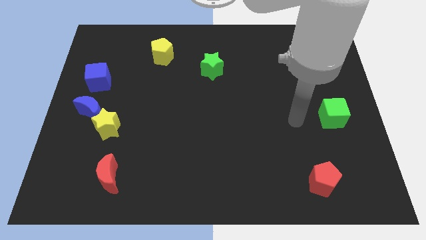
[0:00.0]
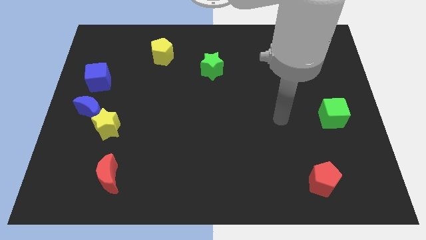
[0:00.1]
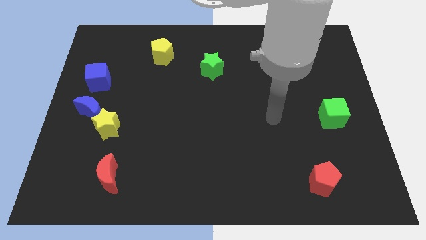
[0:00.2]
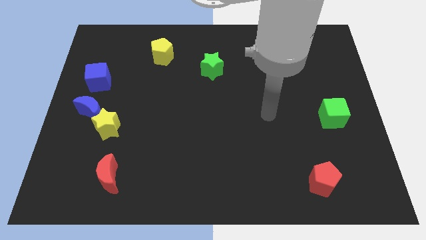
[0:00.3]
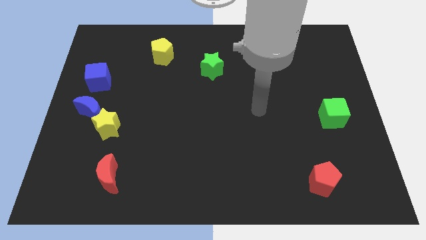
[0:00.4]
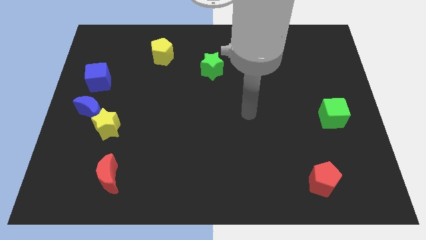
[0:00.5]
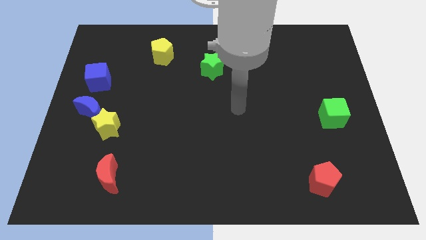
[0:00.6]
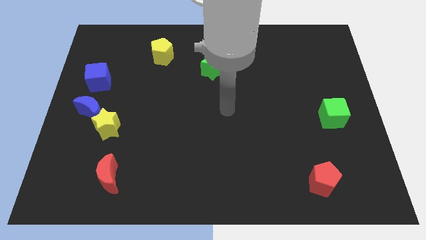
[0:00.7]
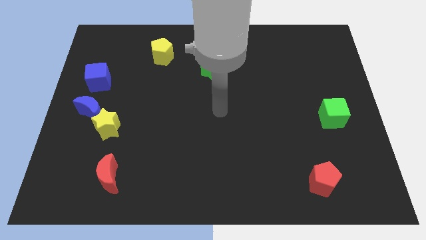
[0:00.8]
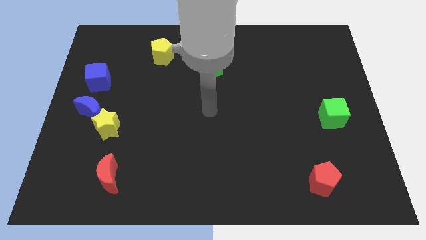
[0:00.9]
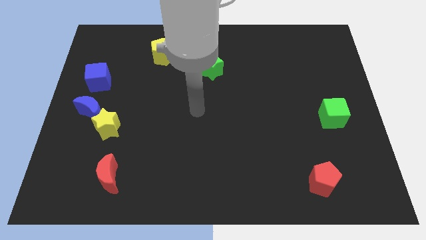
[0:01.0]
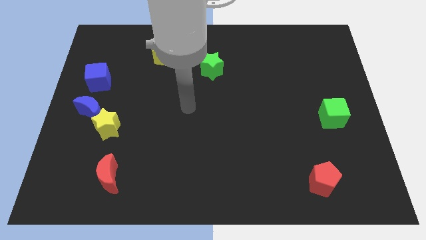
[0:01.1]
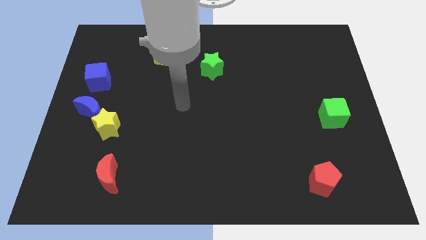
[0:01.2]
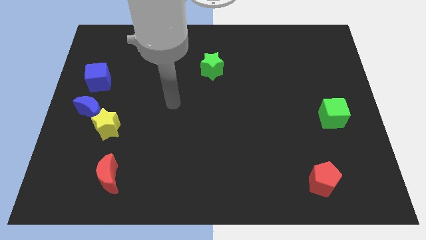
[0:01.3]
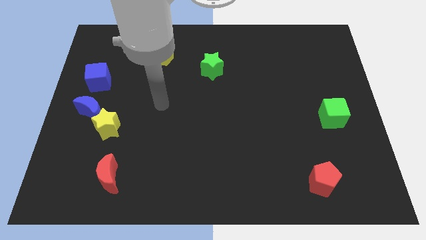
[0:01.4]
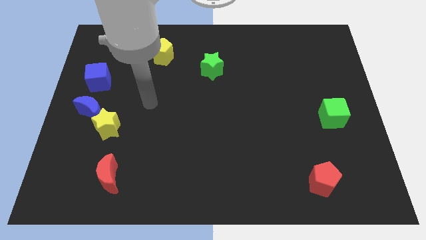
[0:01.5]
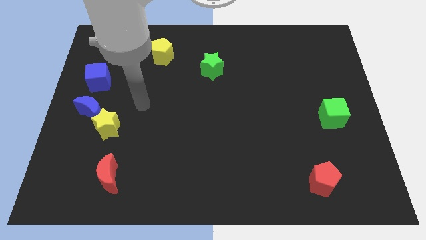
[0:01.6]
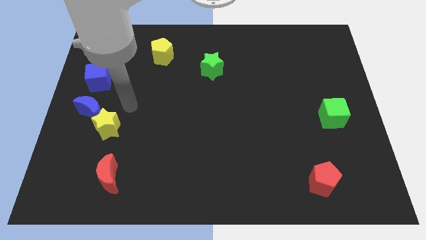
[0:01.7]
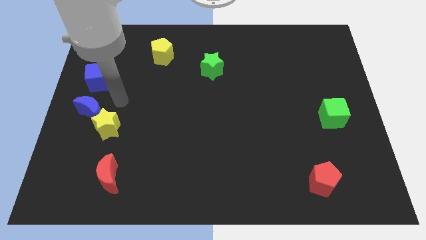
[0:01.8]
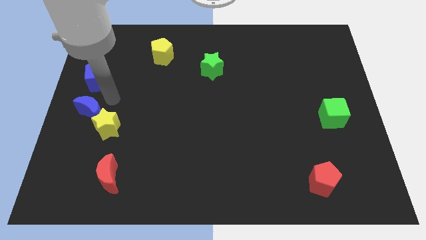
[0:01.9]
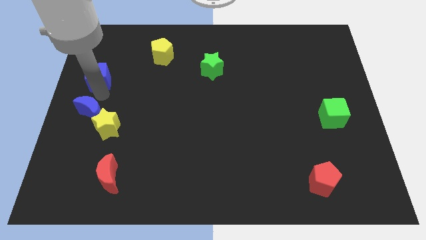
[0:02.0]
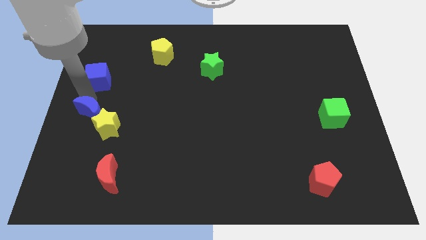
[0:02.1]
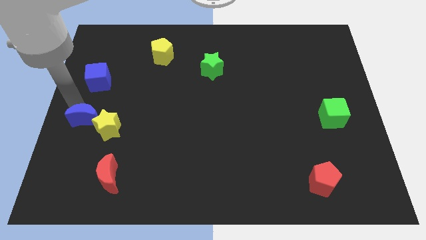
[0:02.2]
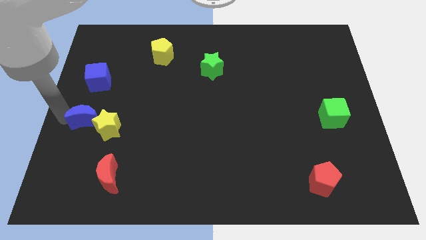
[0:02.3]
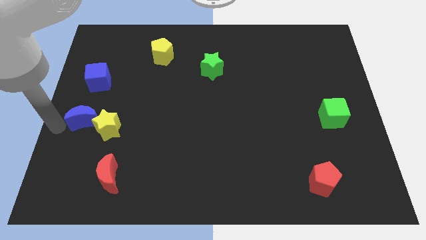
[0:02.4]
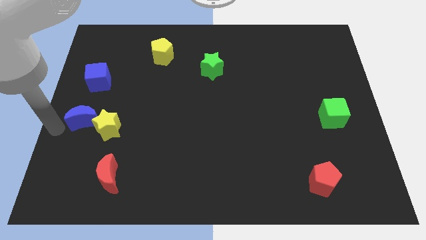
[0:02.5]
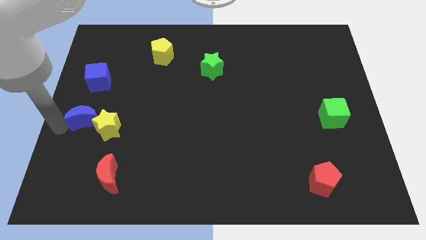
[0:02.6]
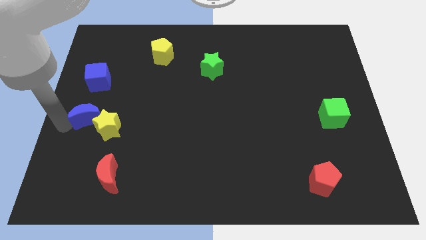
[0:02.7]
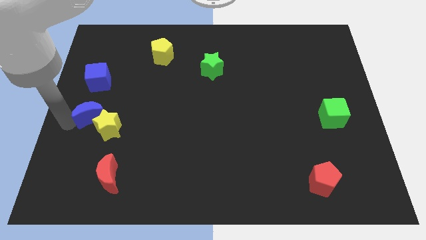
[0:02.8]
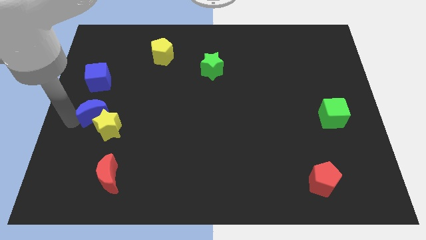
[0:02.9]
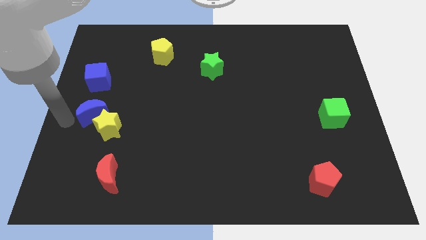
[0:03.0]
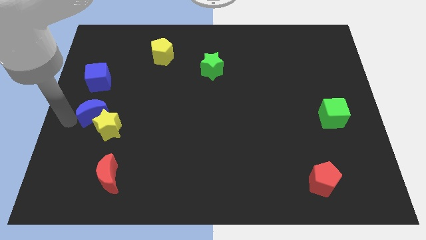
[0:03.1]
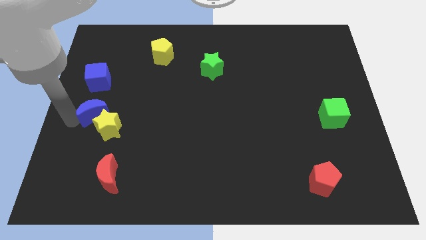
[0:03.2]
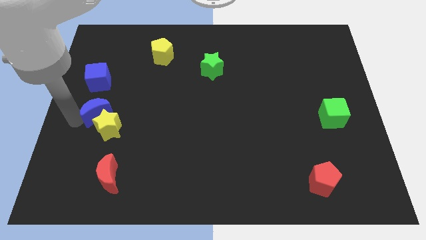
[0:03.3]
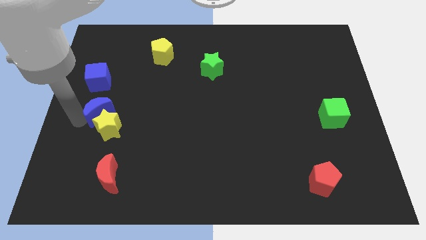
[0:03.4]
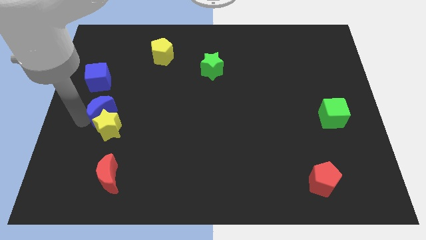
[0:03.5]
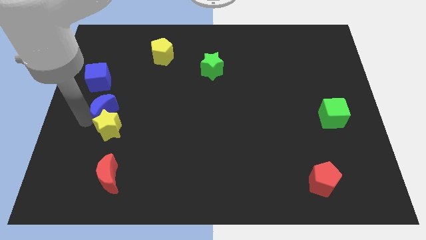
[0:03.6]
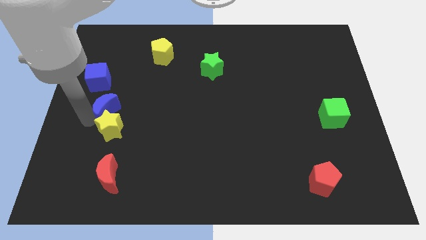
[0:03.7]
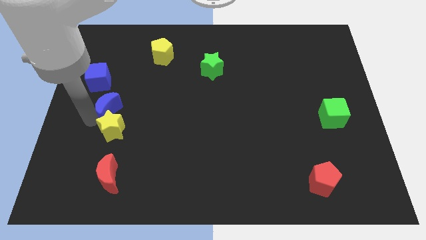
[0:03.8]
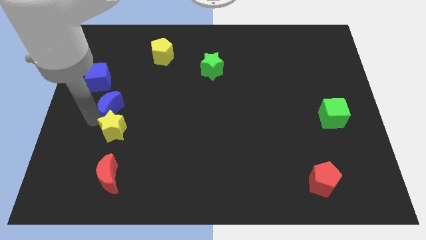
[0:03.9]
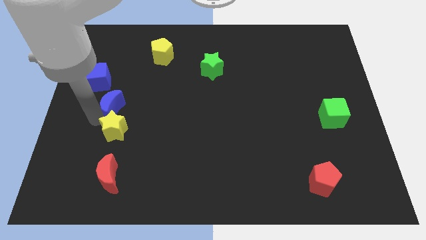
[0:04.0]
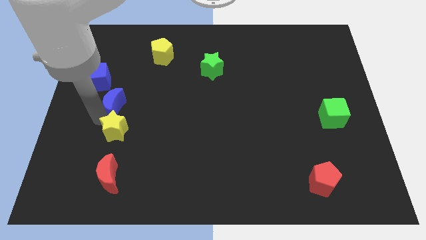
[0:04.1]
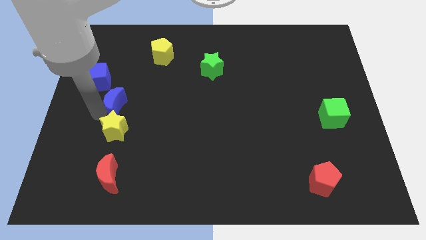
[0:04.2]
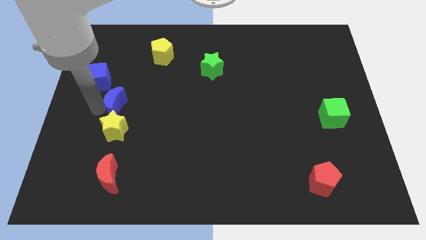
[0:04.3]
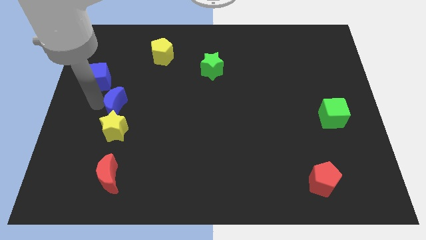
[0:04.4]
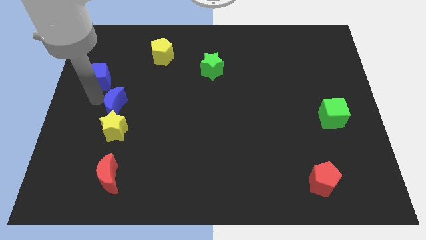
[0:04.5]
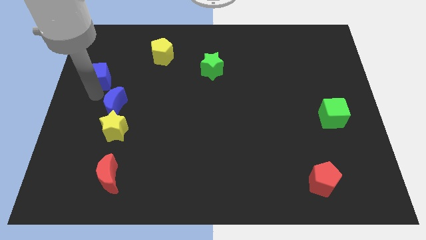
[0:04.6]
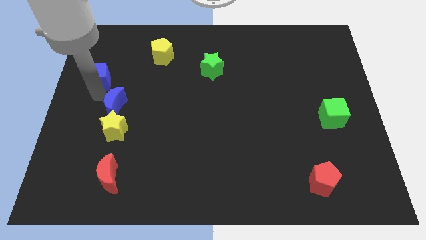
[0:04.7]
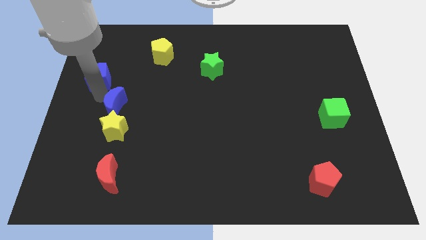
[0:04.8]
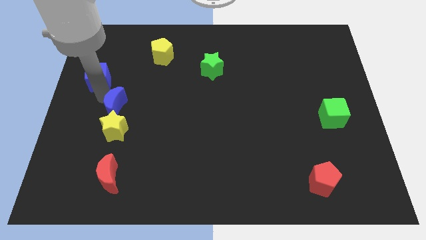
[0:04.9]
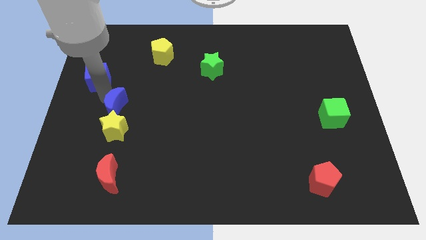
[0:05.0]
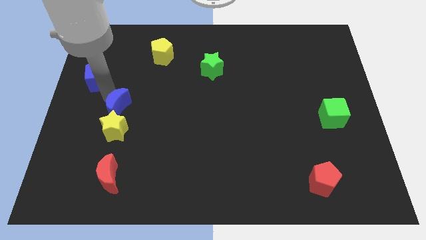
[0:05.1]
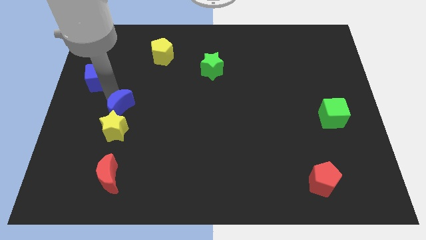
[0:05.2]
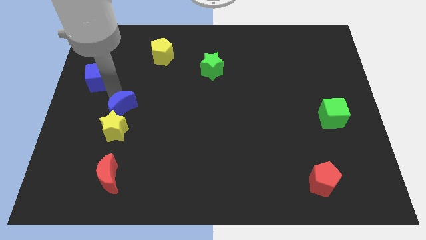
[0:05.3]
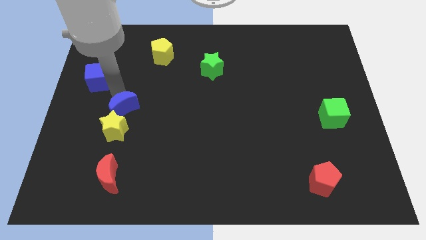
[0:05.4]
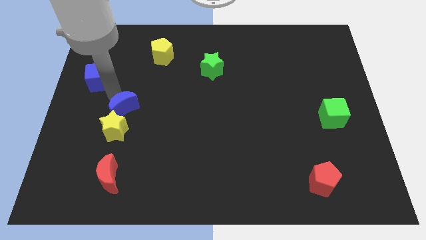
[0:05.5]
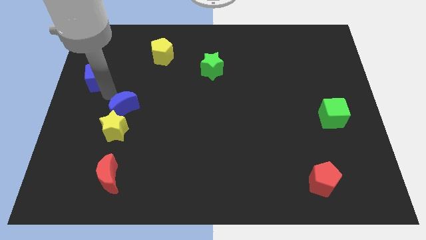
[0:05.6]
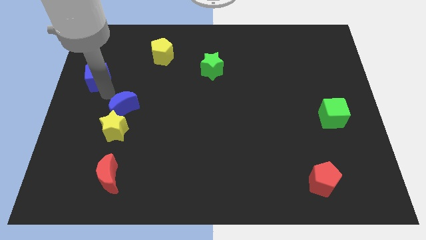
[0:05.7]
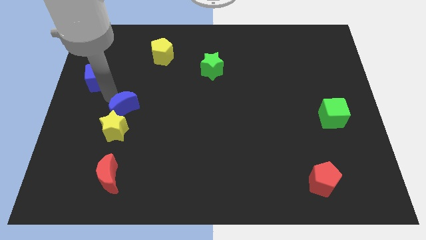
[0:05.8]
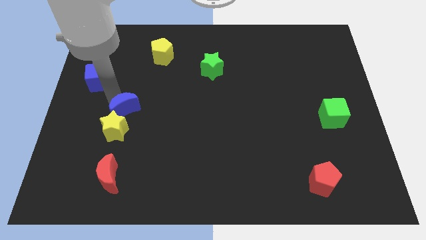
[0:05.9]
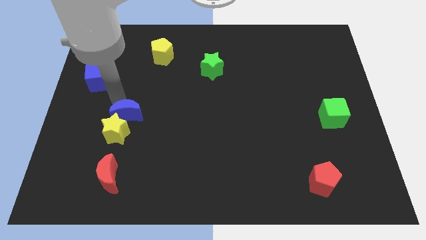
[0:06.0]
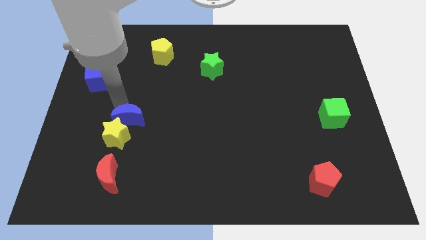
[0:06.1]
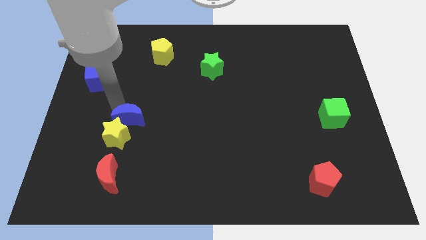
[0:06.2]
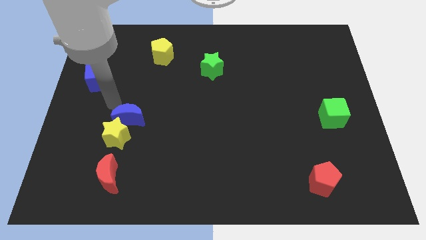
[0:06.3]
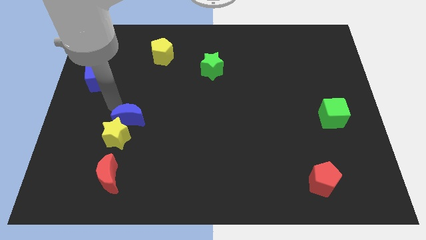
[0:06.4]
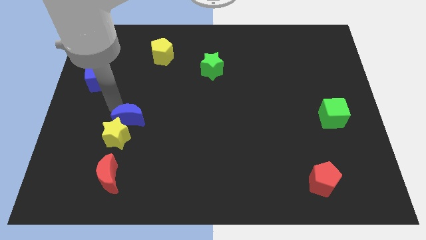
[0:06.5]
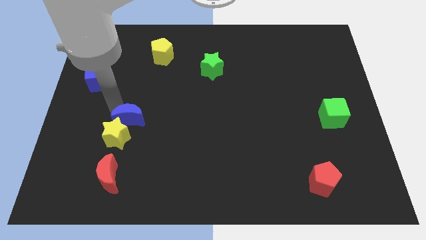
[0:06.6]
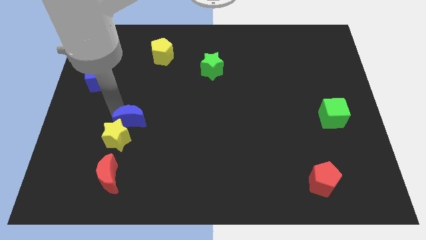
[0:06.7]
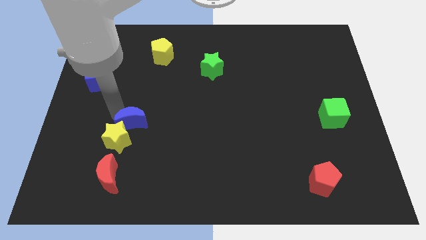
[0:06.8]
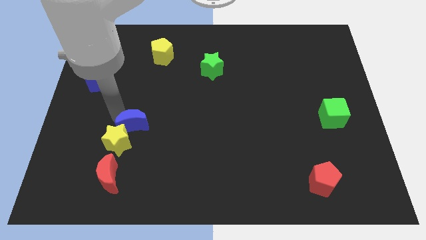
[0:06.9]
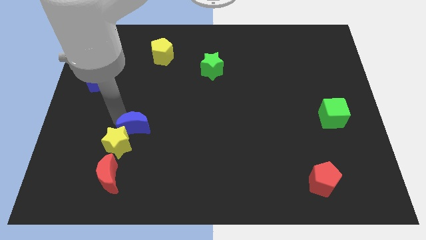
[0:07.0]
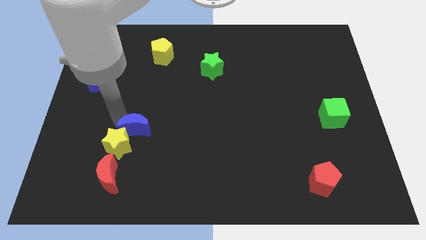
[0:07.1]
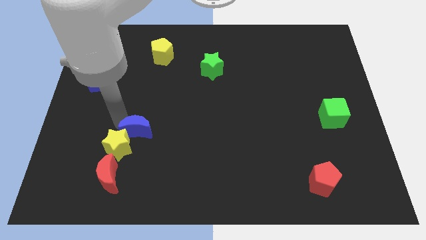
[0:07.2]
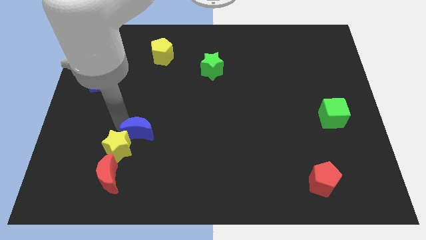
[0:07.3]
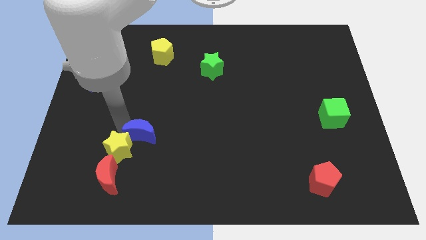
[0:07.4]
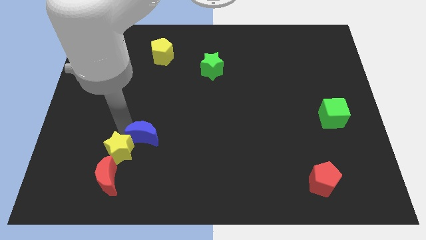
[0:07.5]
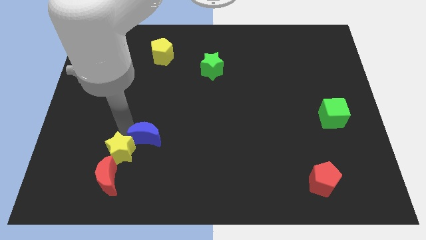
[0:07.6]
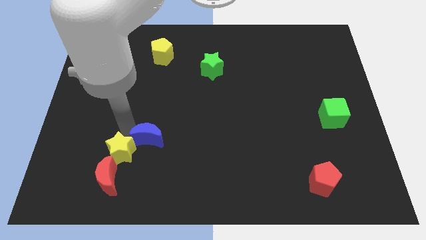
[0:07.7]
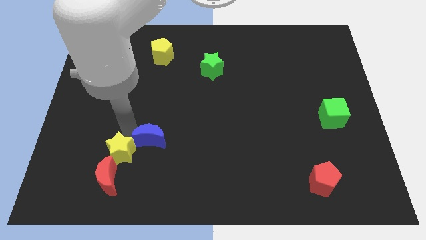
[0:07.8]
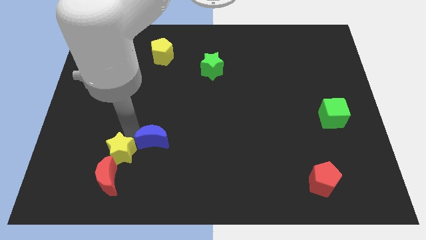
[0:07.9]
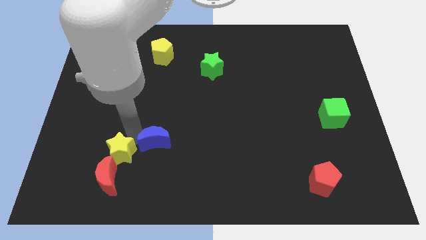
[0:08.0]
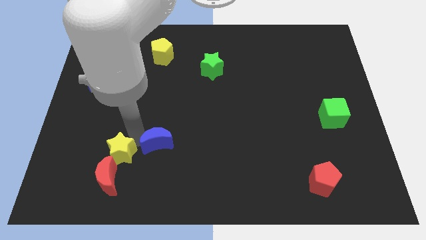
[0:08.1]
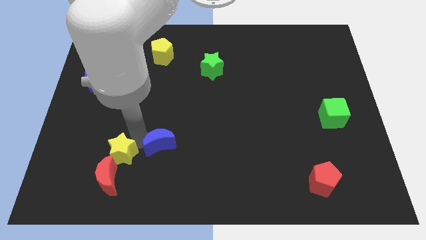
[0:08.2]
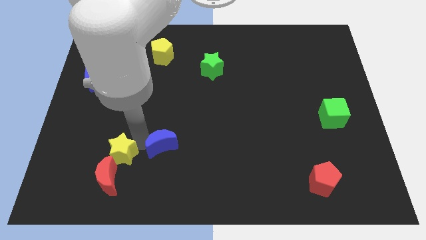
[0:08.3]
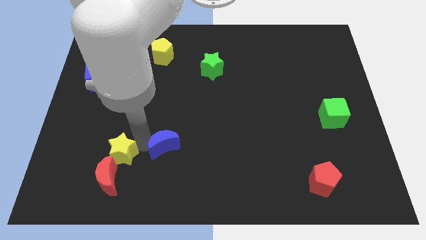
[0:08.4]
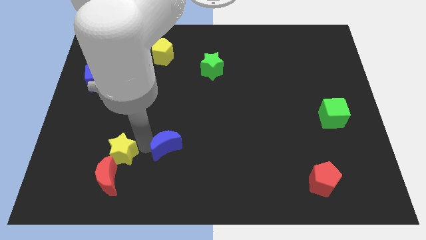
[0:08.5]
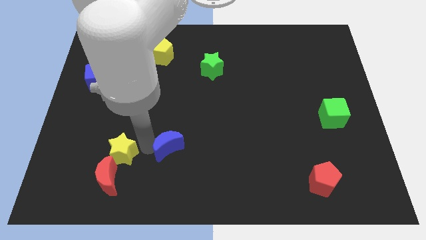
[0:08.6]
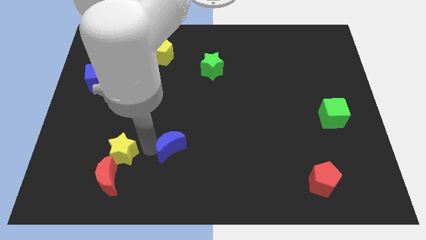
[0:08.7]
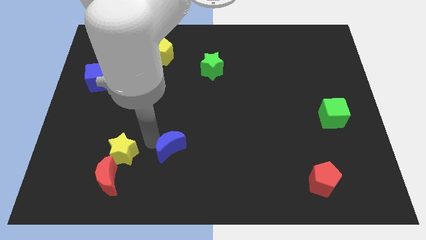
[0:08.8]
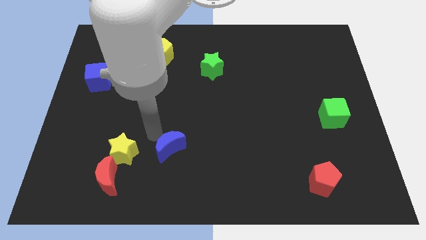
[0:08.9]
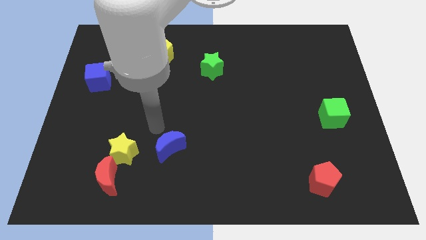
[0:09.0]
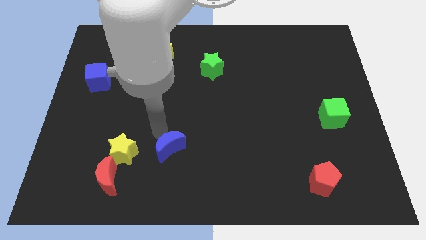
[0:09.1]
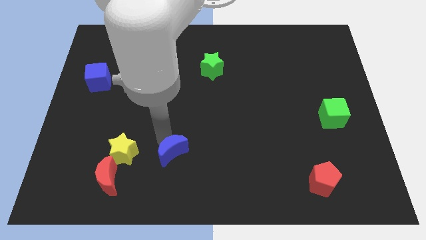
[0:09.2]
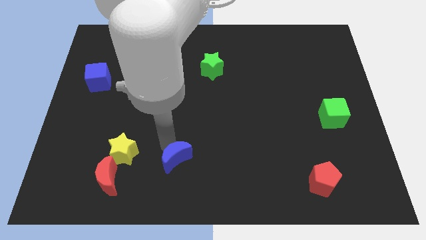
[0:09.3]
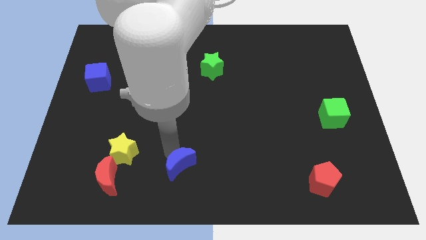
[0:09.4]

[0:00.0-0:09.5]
slide the blue moon to the bottom
